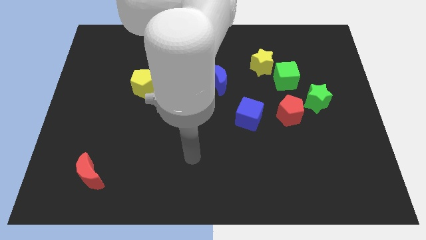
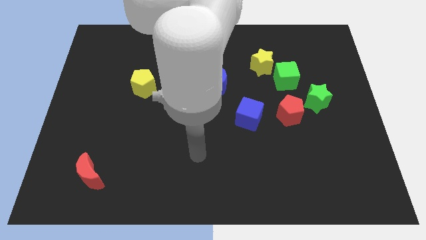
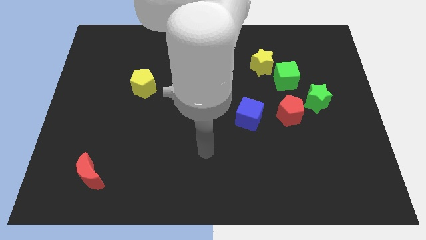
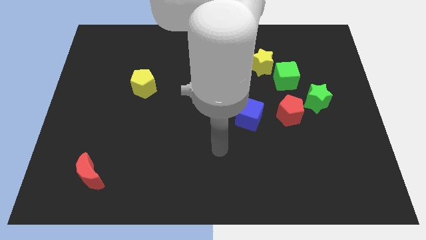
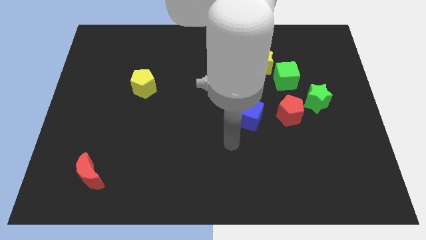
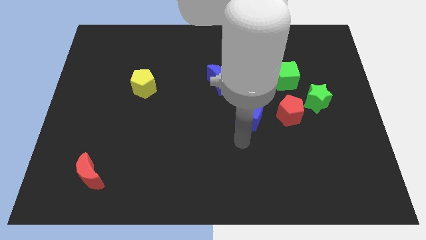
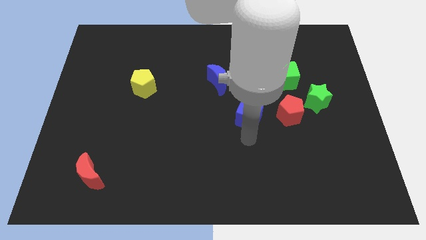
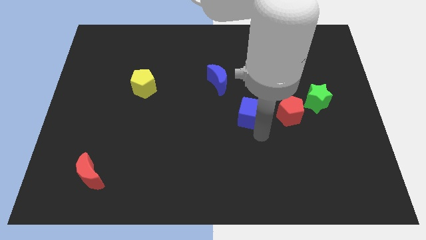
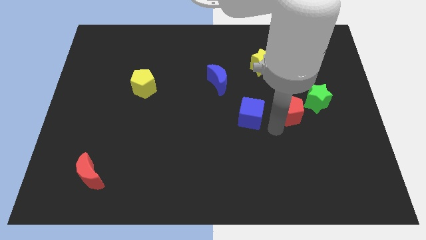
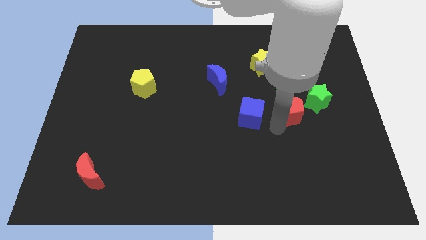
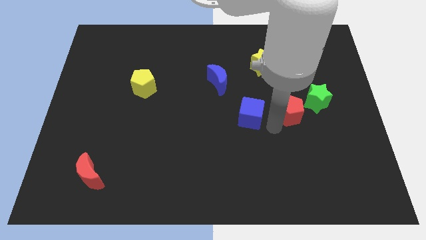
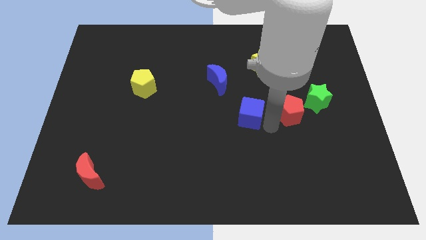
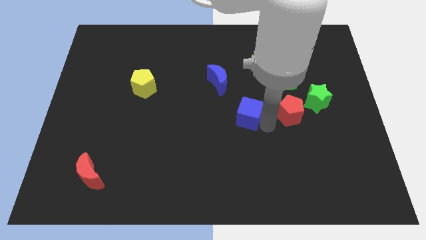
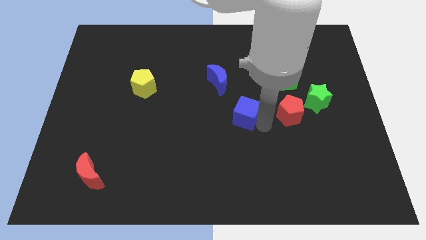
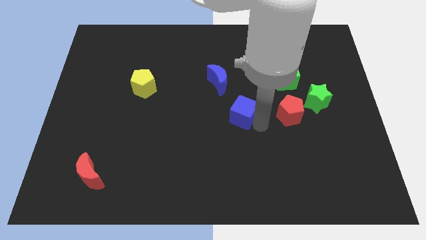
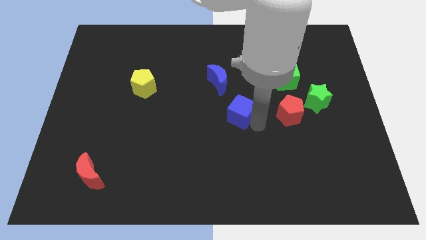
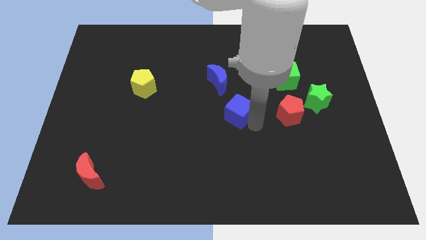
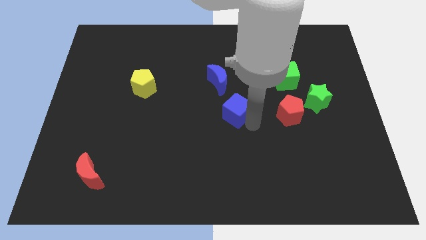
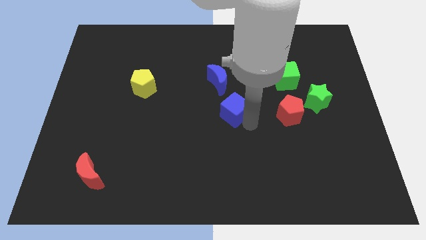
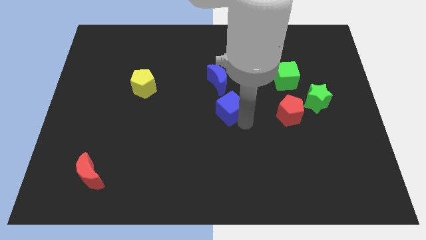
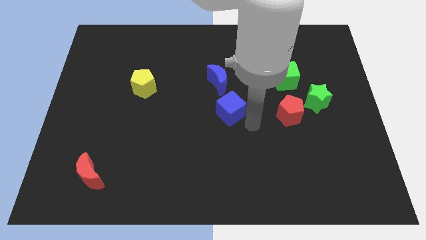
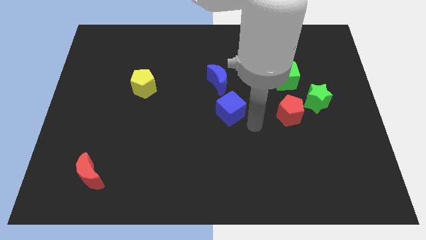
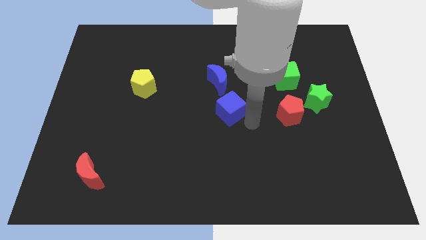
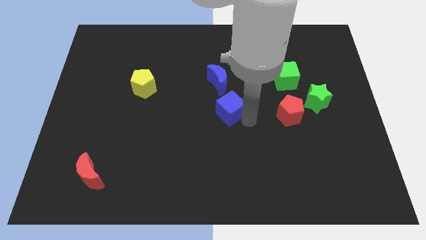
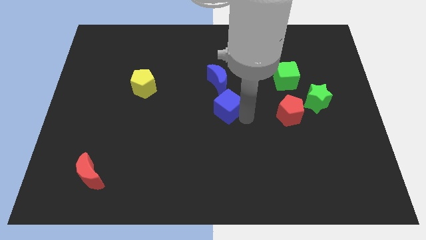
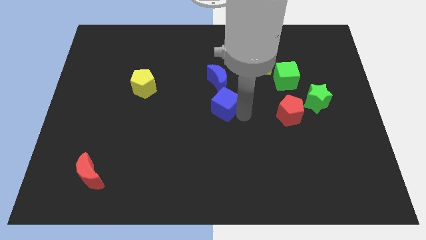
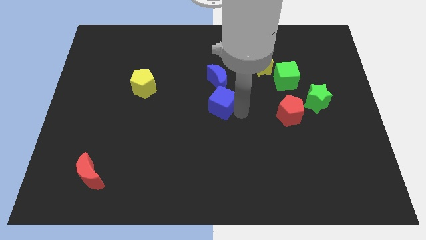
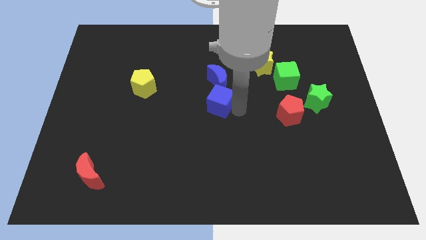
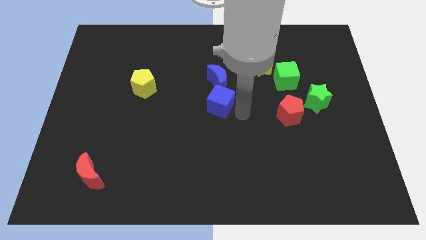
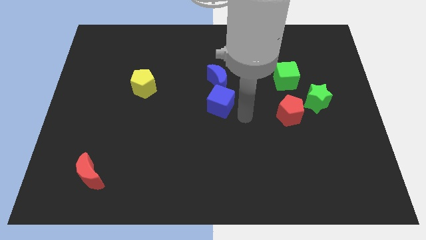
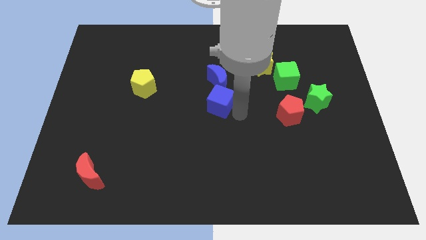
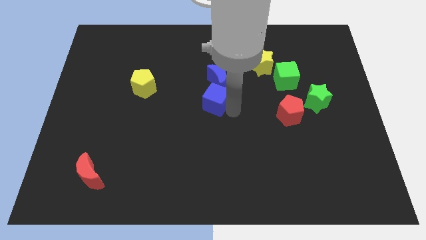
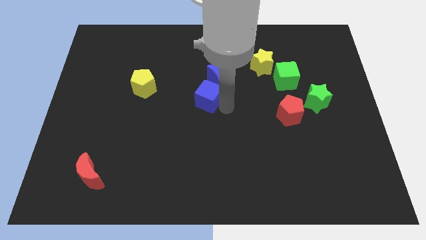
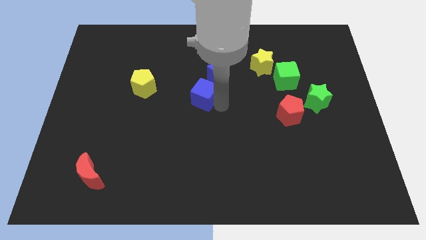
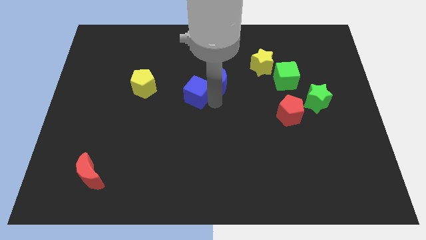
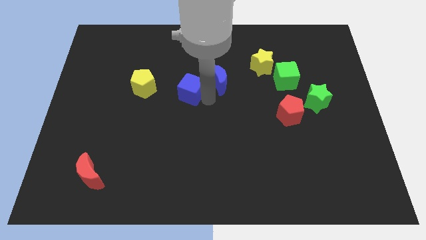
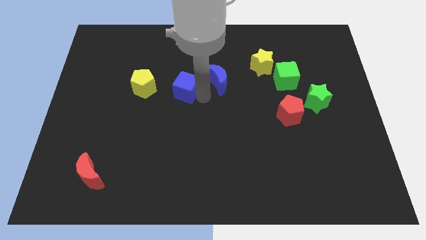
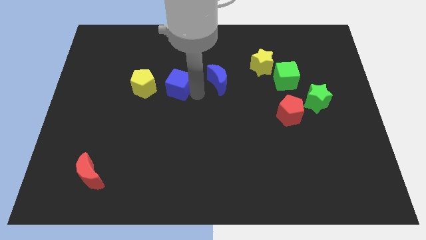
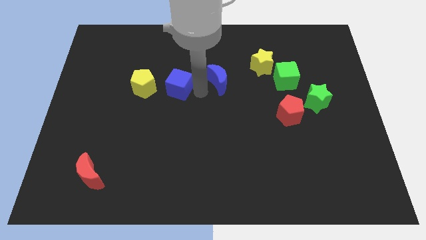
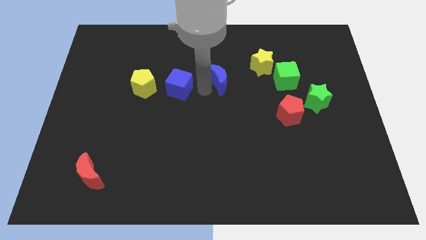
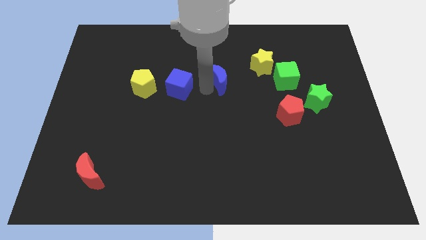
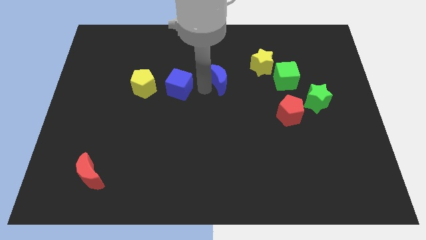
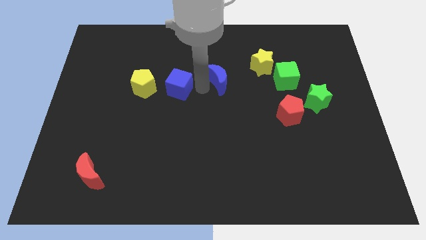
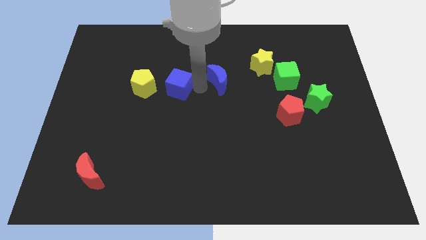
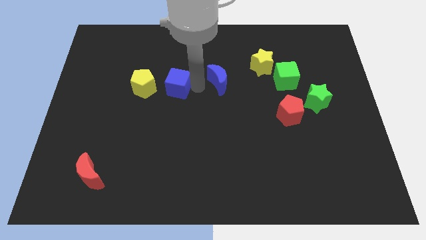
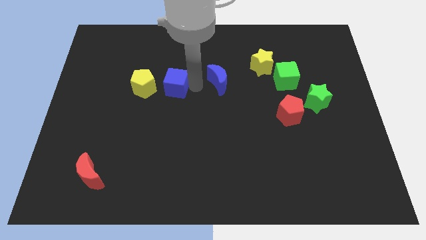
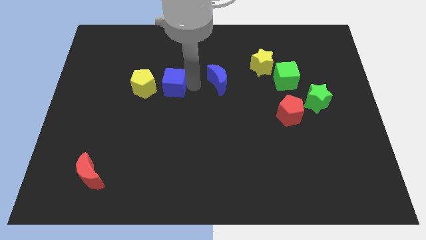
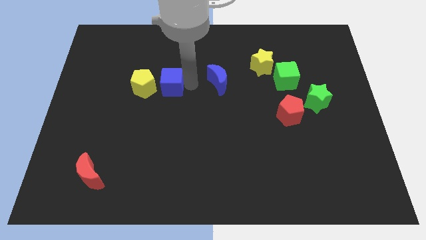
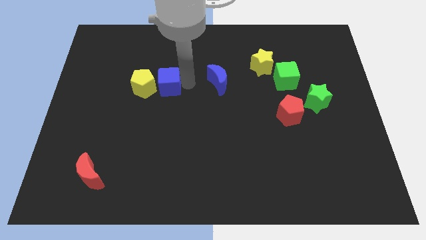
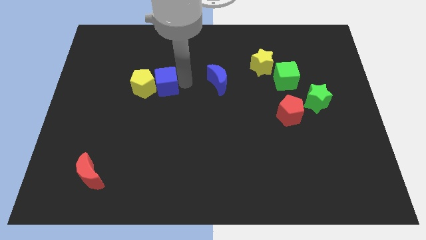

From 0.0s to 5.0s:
push the blue cube next to the yellow pentagon

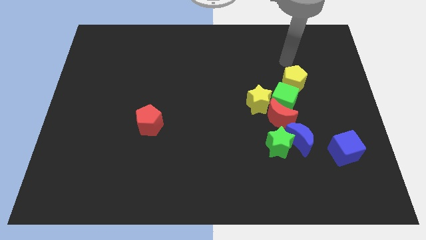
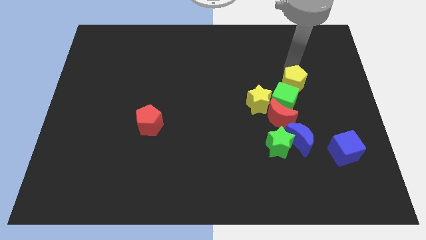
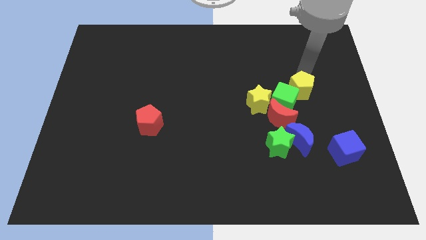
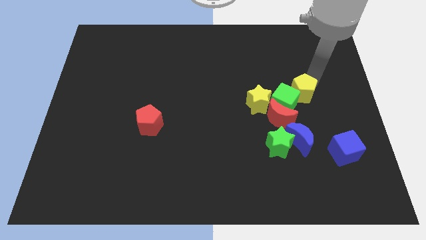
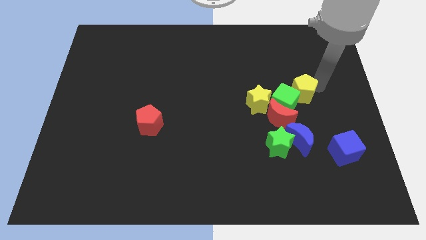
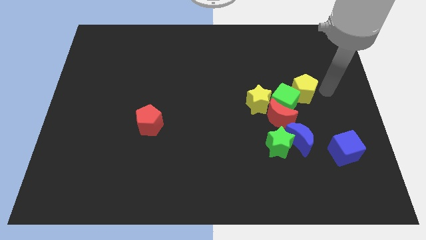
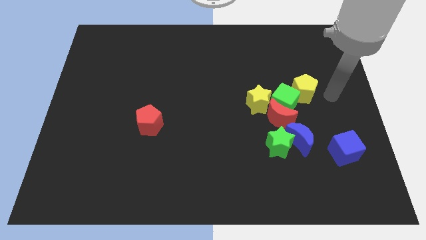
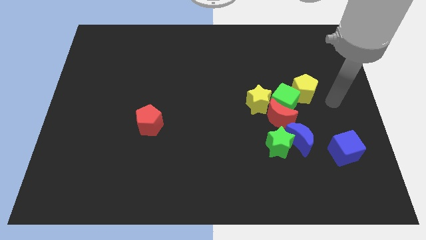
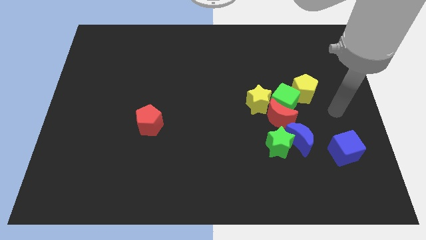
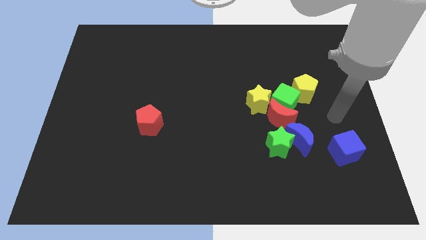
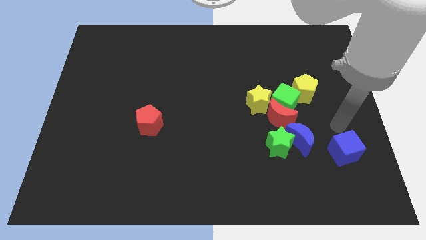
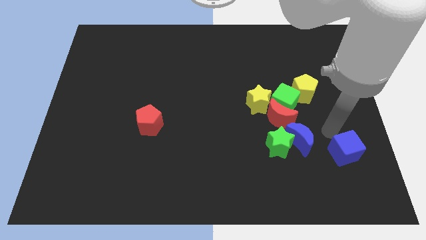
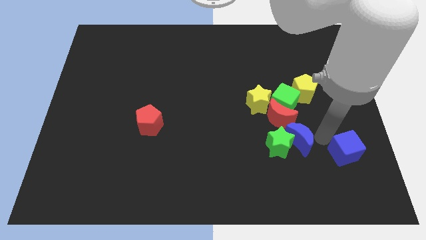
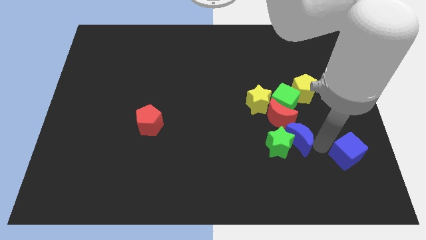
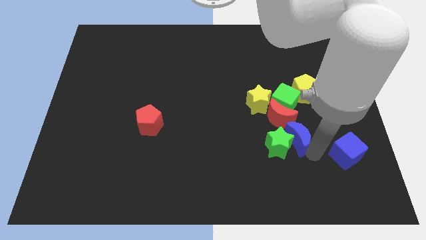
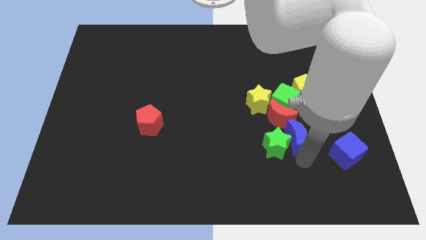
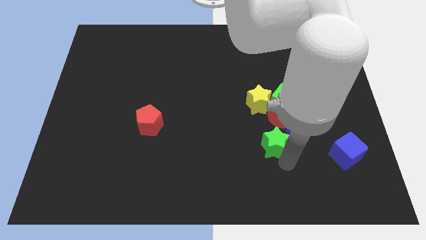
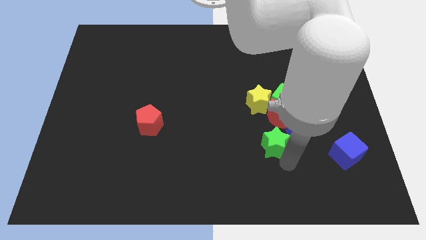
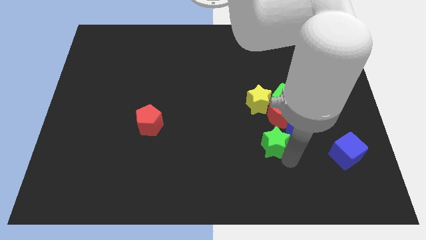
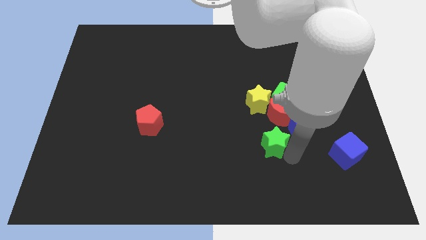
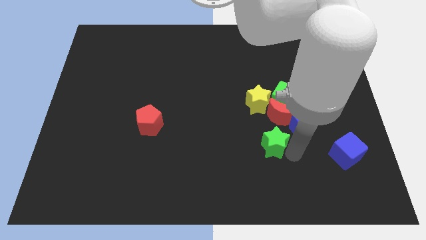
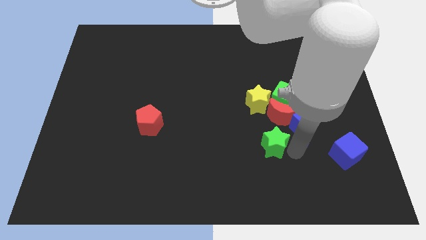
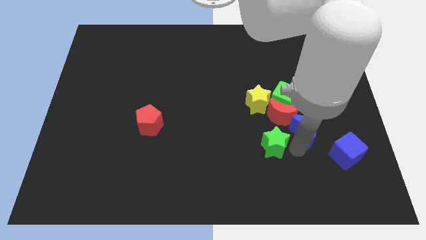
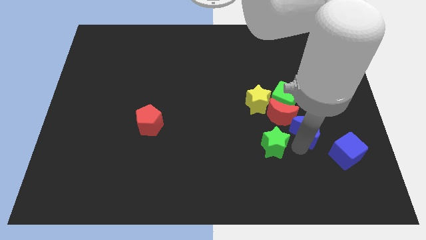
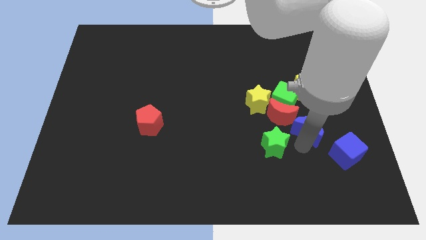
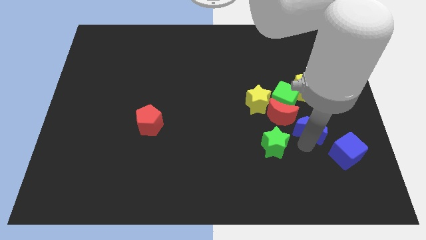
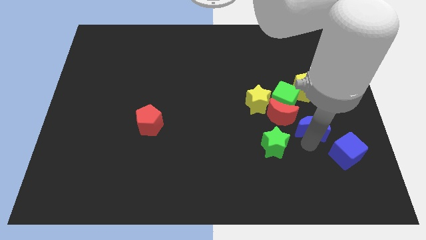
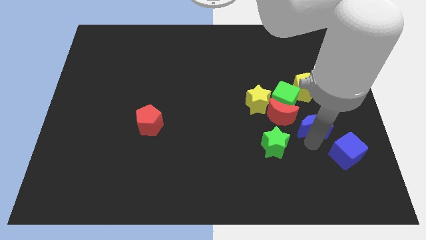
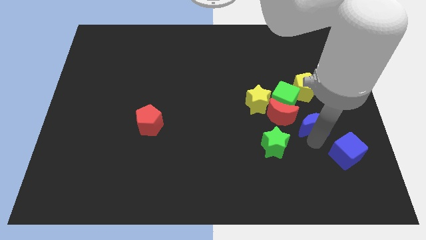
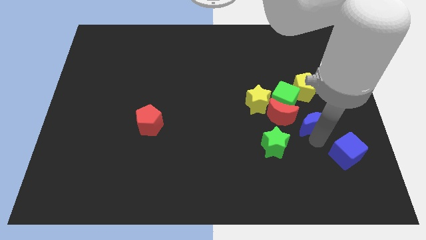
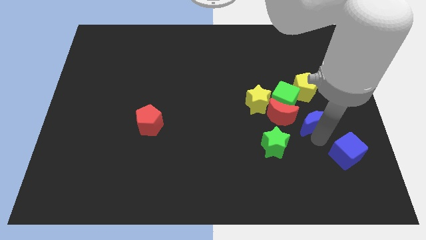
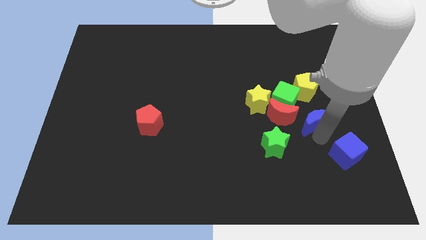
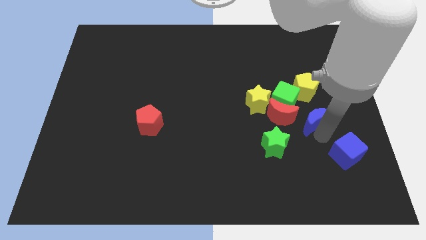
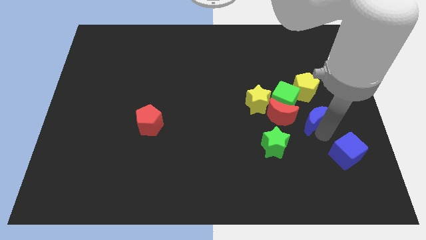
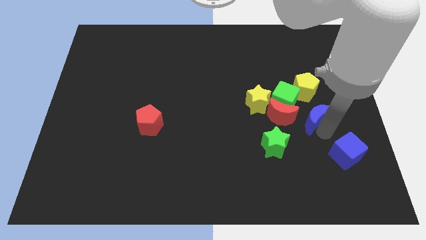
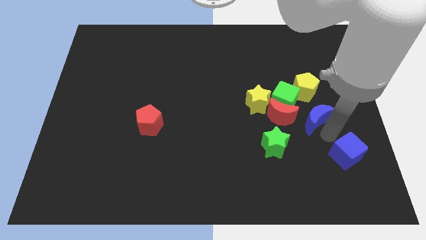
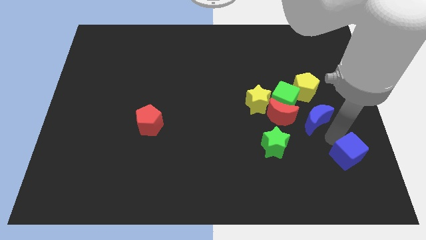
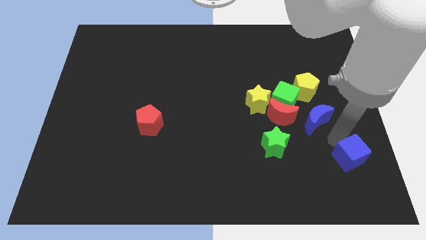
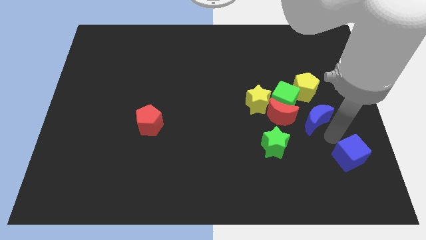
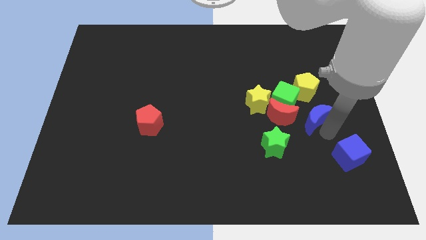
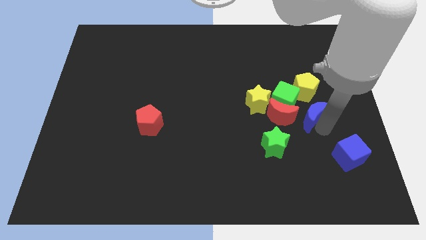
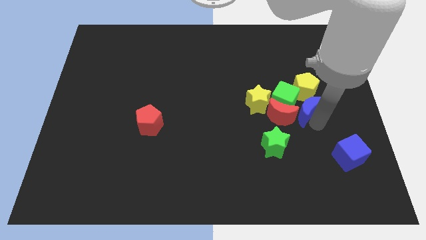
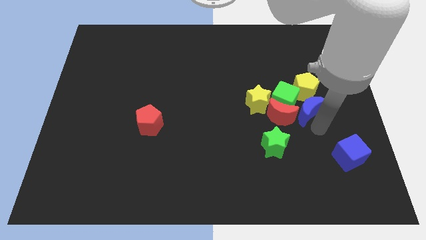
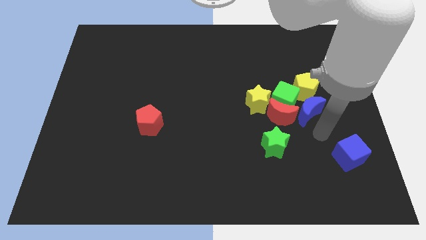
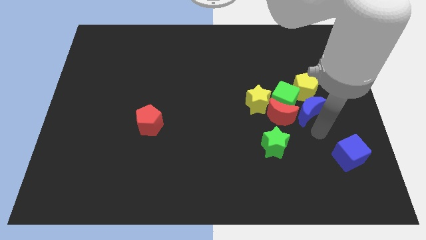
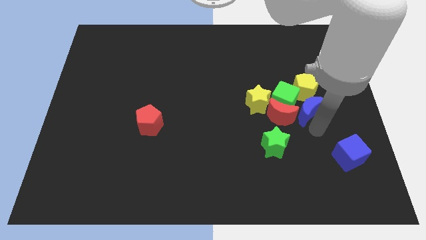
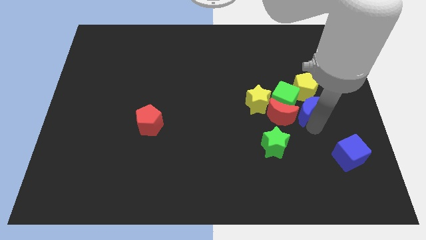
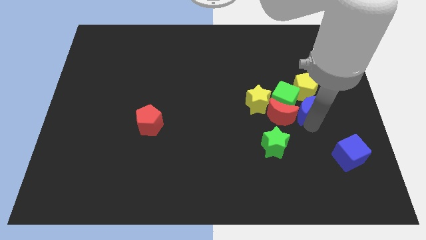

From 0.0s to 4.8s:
move the blue moon towards the yellow pentagon
